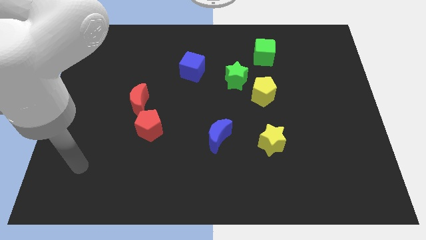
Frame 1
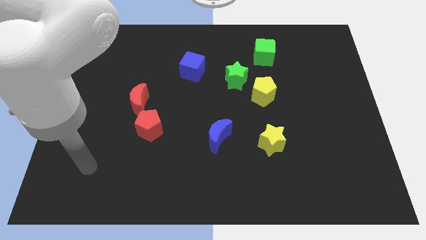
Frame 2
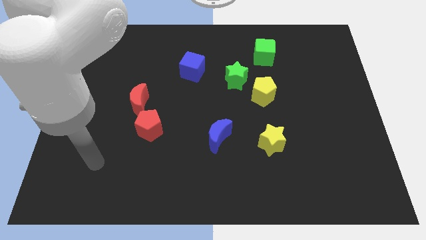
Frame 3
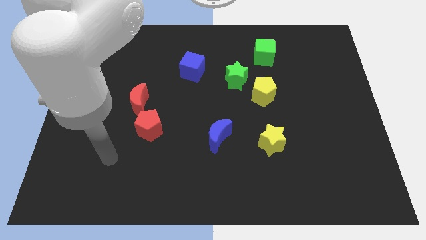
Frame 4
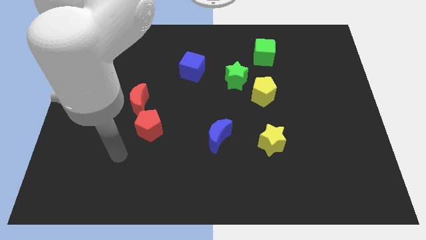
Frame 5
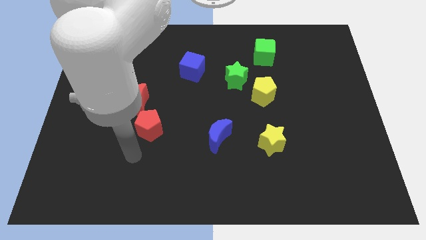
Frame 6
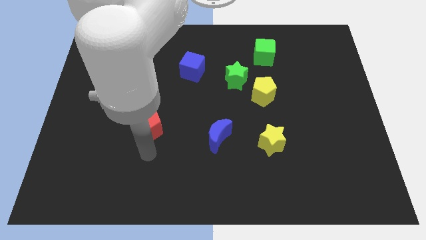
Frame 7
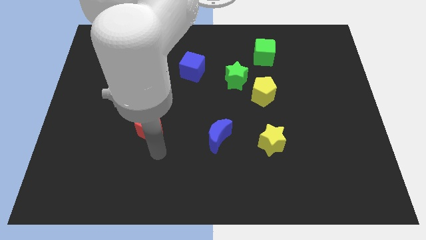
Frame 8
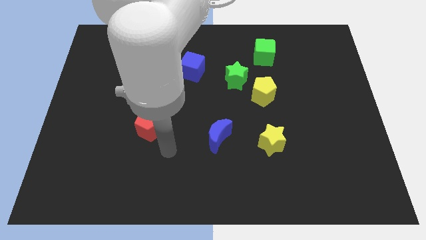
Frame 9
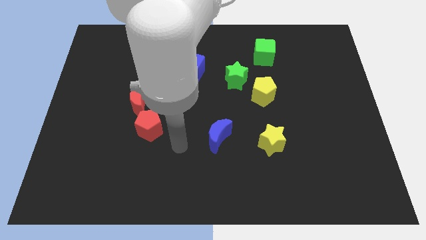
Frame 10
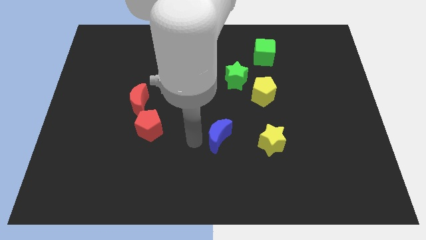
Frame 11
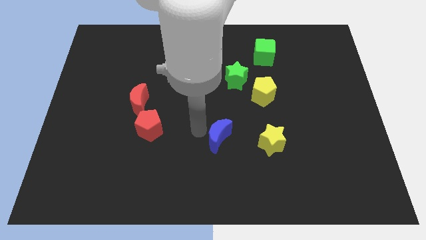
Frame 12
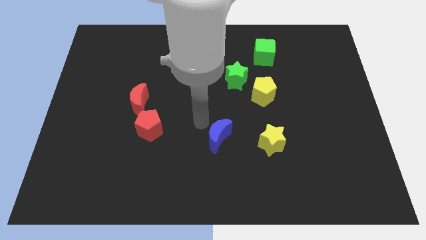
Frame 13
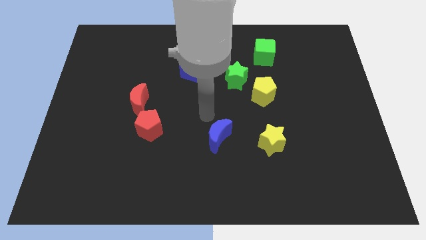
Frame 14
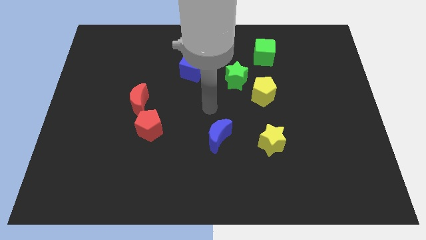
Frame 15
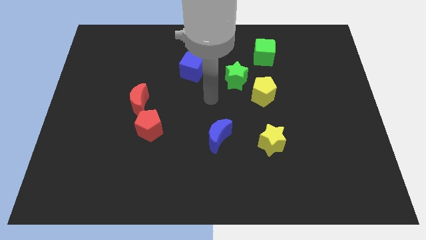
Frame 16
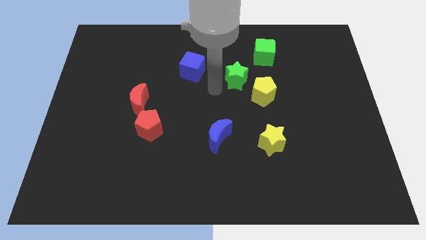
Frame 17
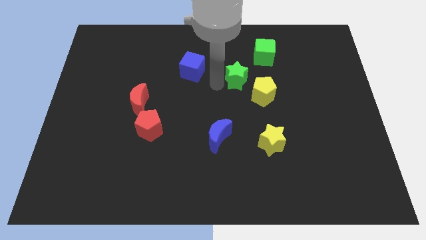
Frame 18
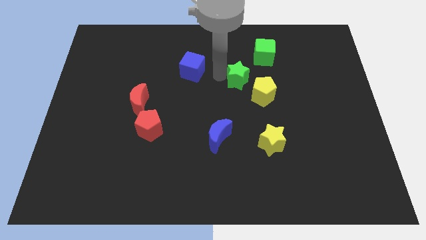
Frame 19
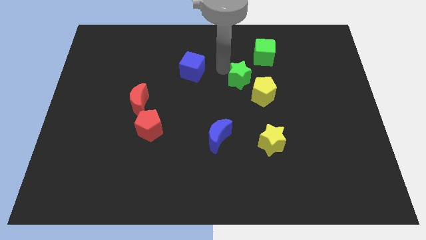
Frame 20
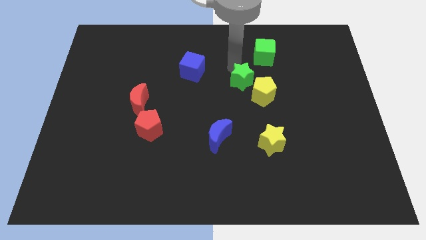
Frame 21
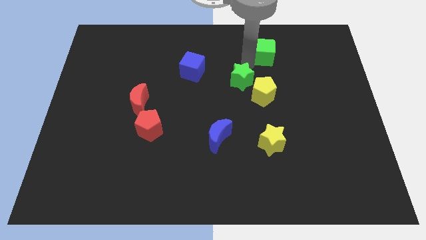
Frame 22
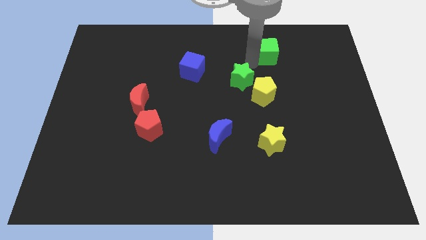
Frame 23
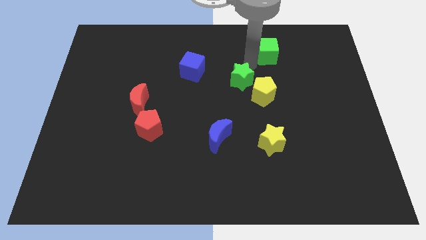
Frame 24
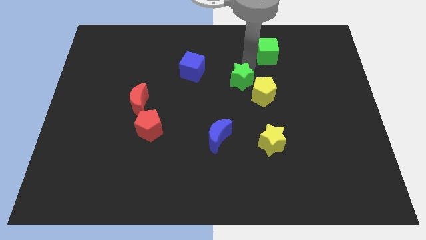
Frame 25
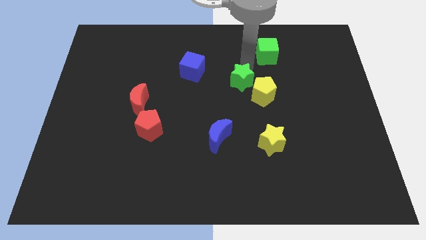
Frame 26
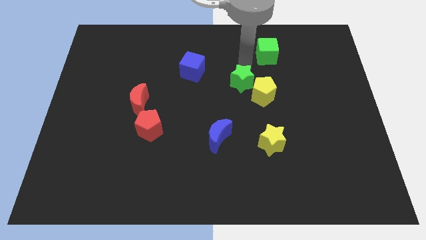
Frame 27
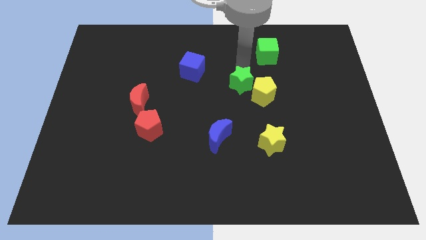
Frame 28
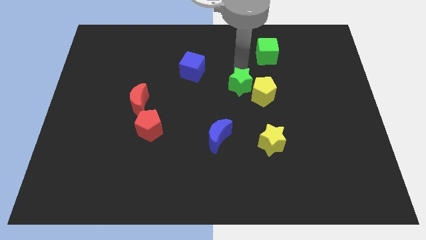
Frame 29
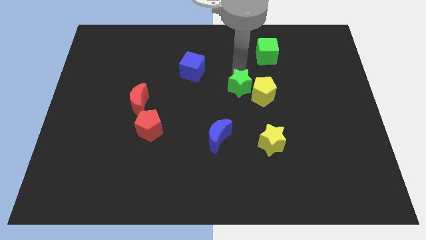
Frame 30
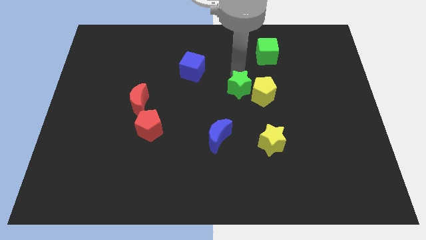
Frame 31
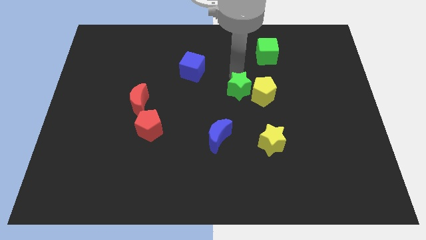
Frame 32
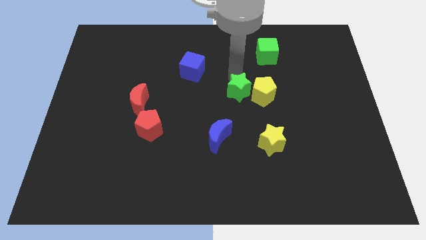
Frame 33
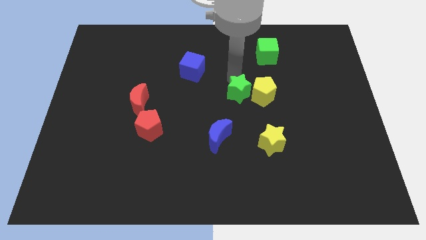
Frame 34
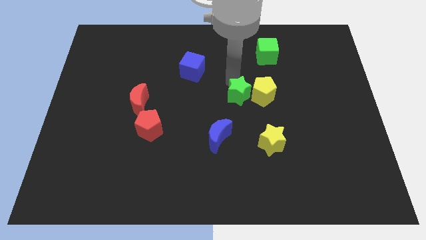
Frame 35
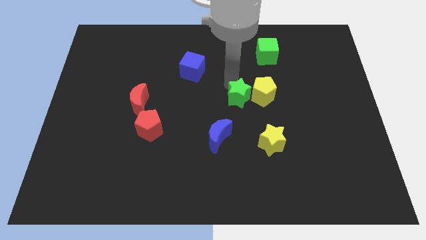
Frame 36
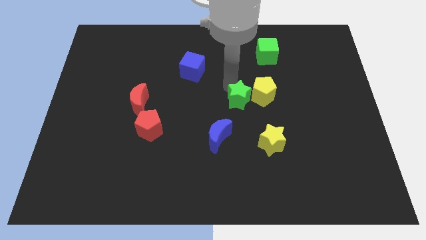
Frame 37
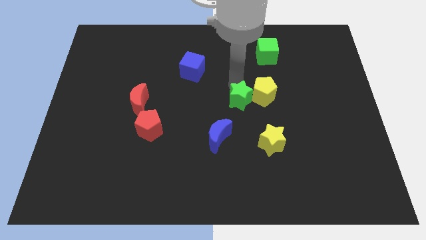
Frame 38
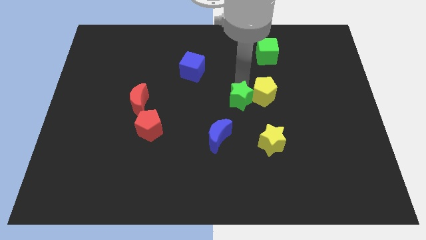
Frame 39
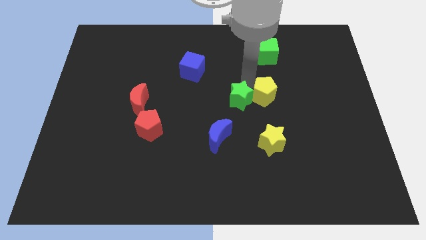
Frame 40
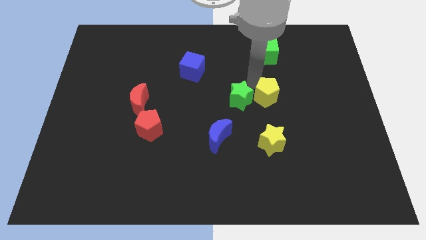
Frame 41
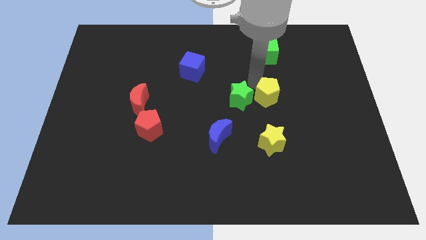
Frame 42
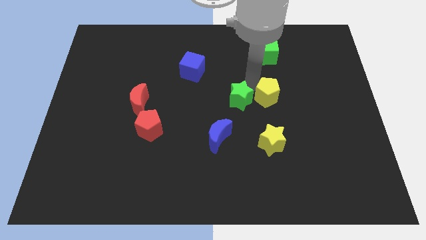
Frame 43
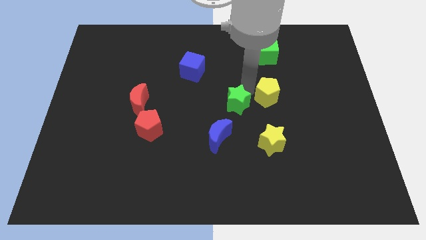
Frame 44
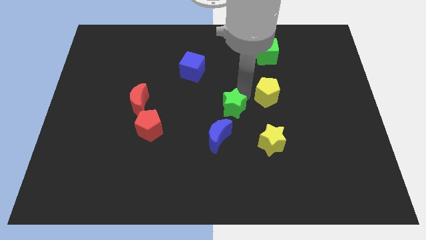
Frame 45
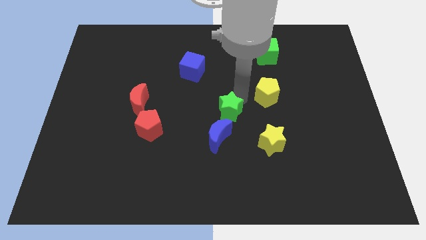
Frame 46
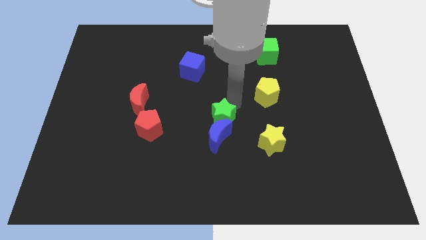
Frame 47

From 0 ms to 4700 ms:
slide the green star towards the blue moon

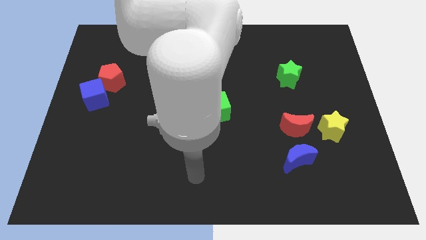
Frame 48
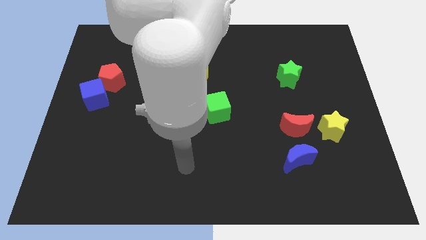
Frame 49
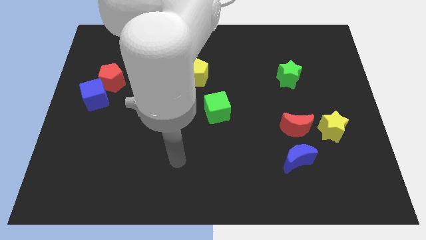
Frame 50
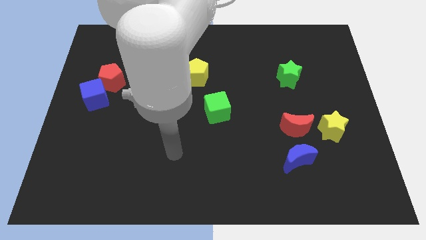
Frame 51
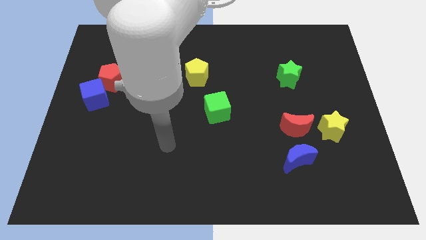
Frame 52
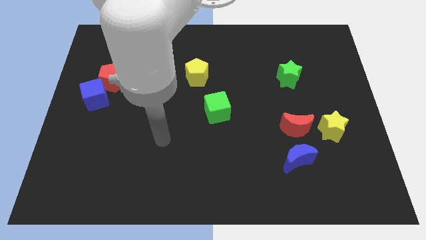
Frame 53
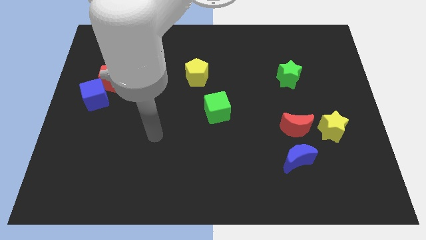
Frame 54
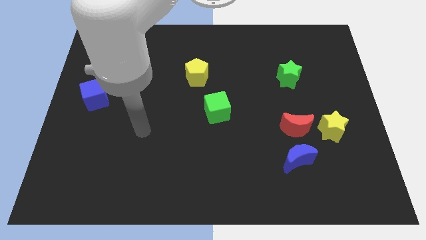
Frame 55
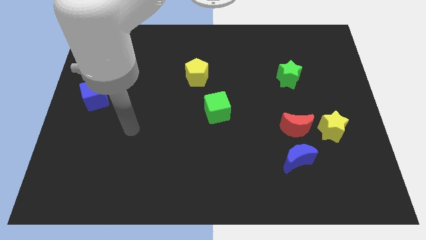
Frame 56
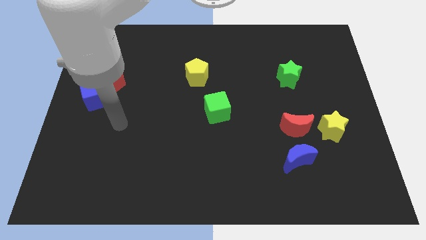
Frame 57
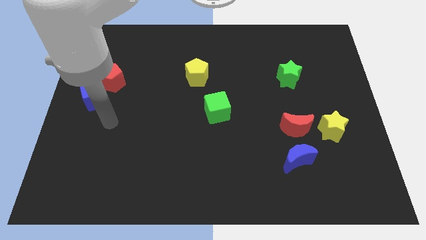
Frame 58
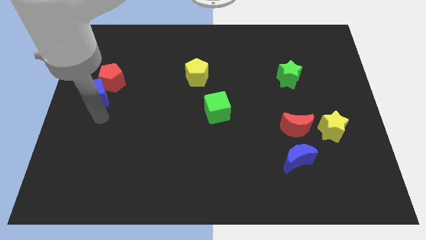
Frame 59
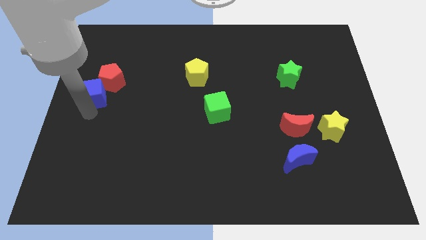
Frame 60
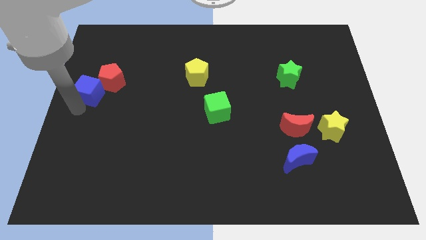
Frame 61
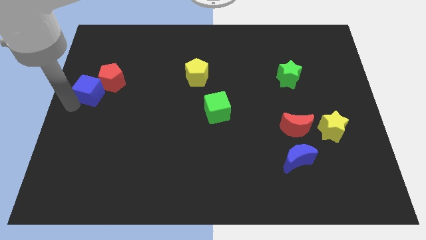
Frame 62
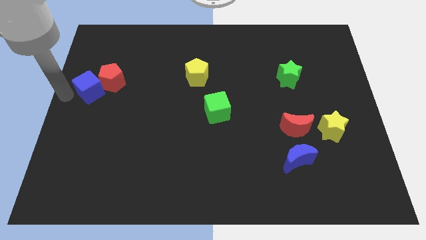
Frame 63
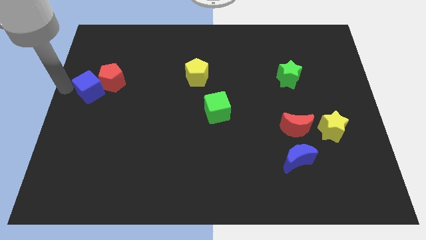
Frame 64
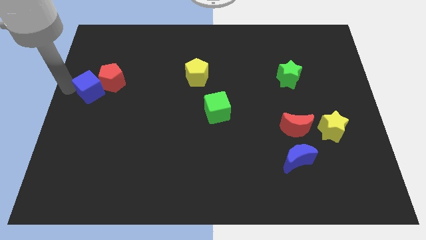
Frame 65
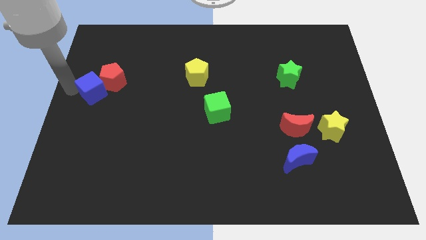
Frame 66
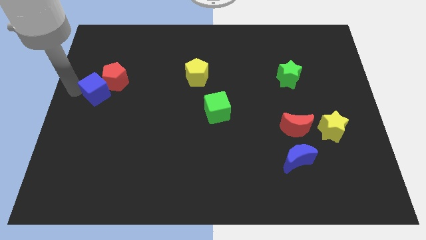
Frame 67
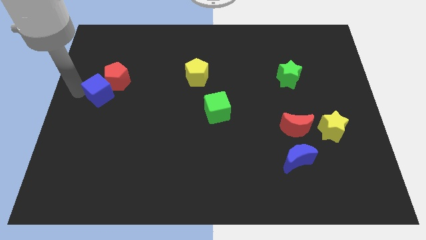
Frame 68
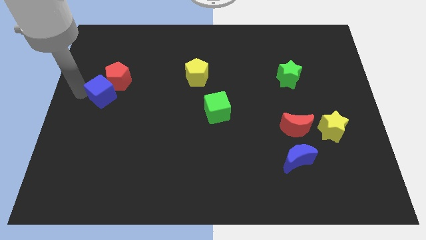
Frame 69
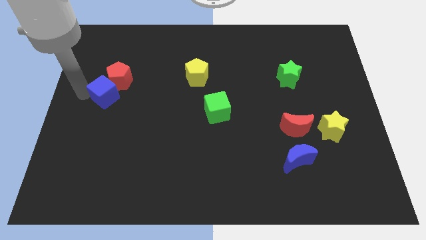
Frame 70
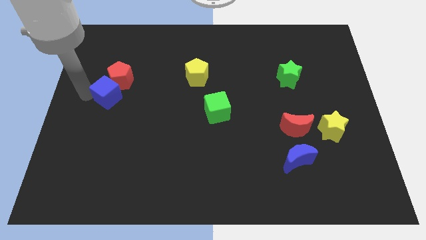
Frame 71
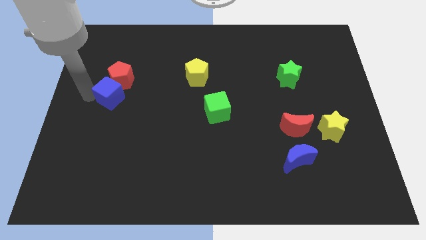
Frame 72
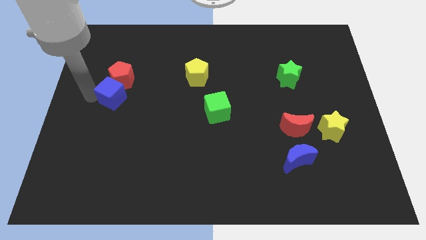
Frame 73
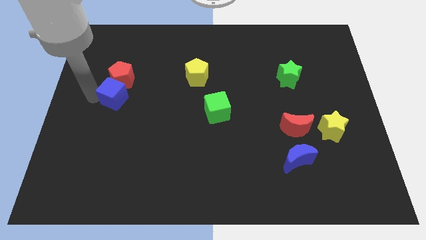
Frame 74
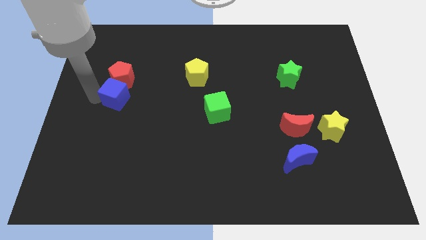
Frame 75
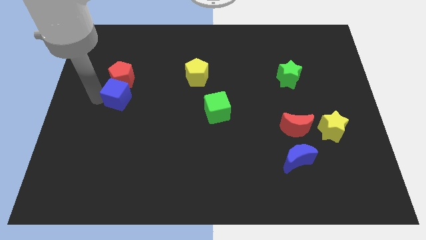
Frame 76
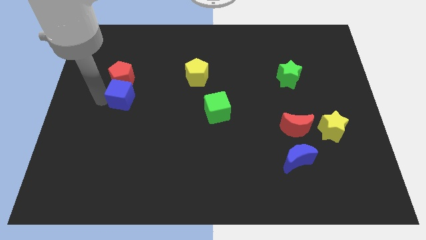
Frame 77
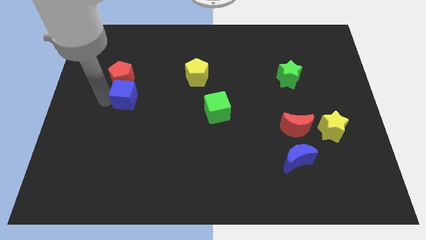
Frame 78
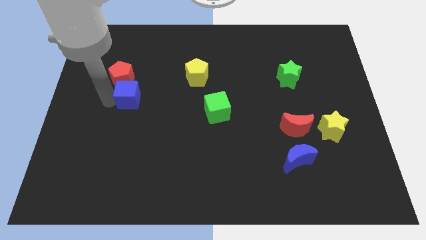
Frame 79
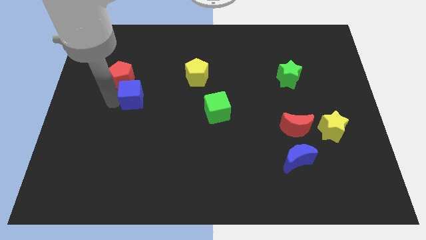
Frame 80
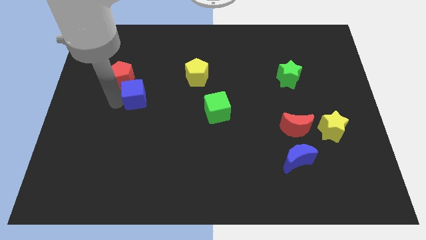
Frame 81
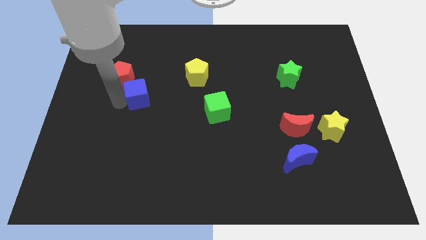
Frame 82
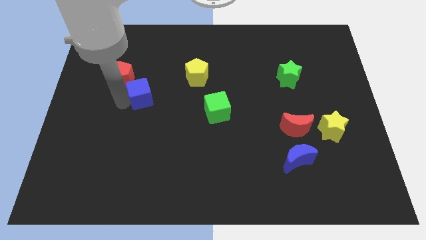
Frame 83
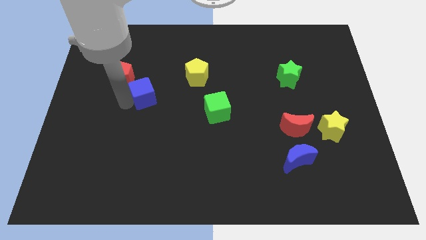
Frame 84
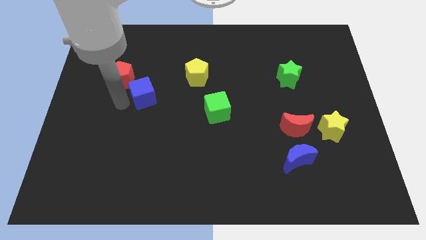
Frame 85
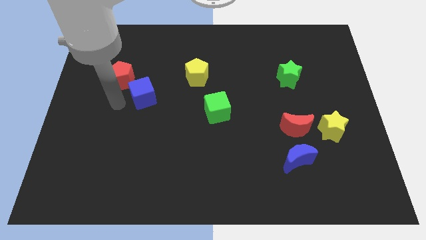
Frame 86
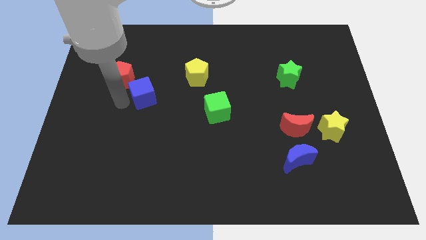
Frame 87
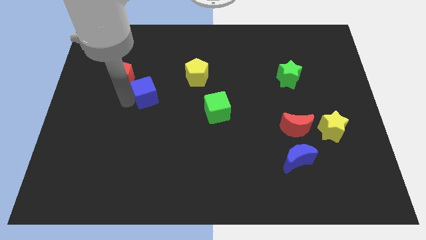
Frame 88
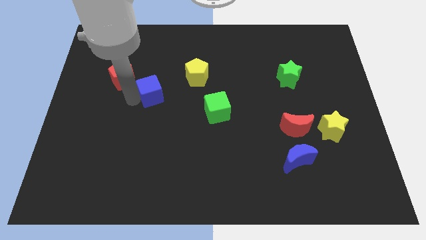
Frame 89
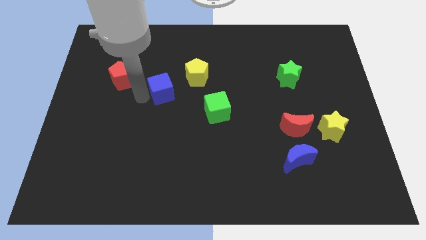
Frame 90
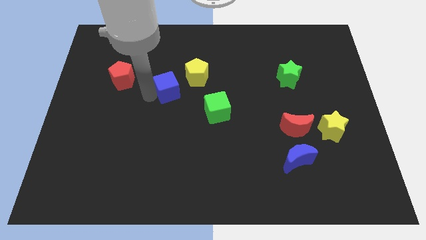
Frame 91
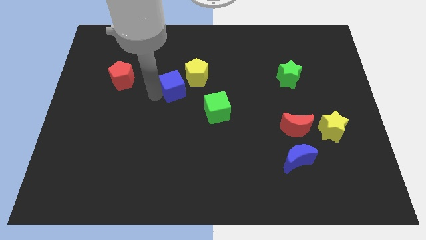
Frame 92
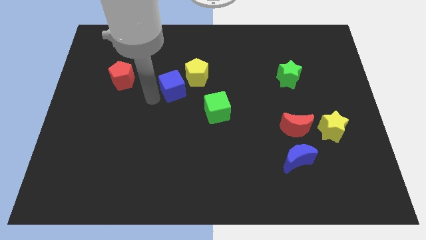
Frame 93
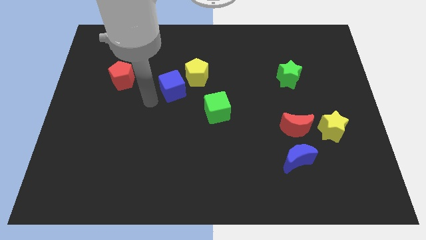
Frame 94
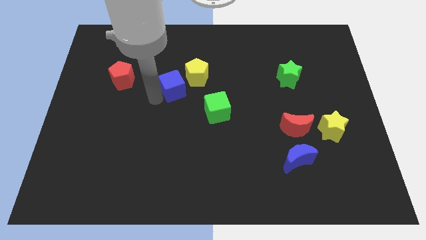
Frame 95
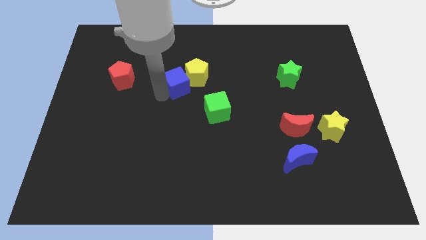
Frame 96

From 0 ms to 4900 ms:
move the blue cube towards the yellow pentagon
